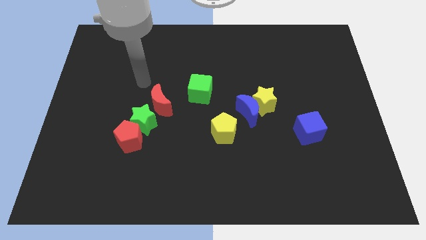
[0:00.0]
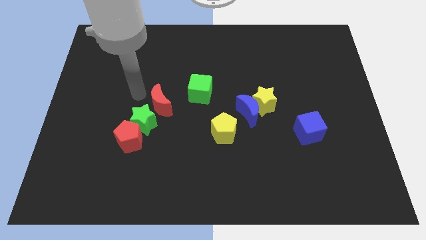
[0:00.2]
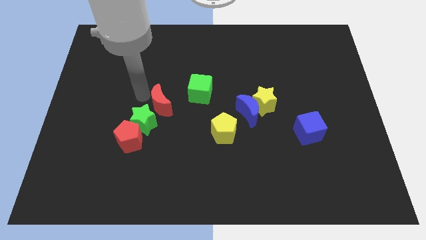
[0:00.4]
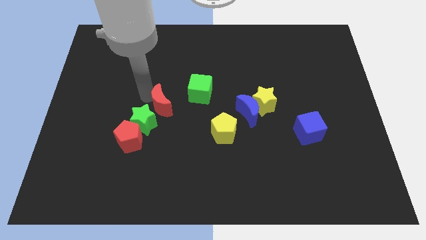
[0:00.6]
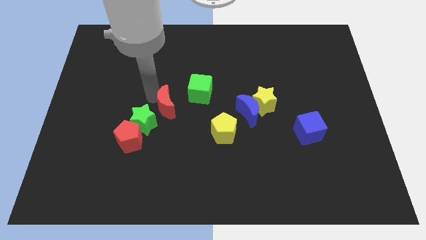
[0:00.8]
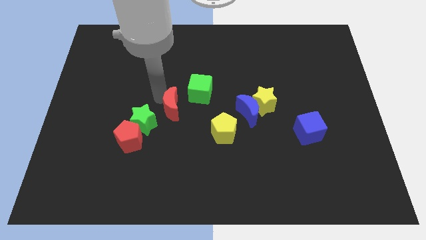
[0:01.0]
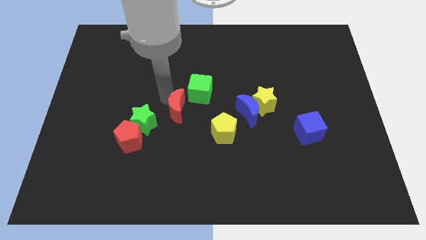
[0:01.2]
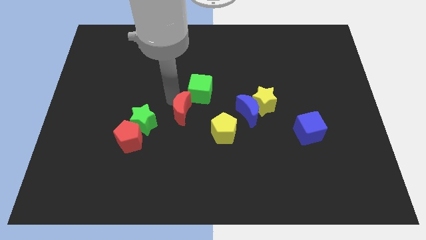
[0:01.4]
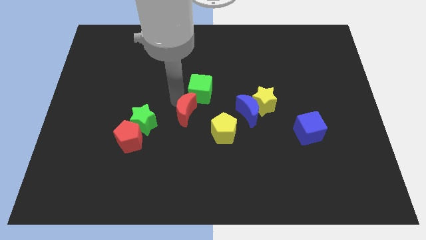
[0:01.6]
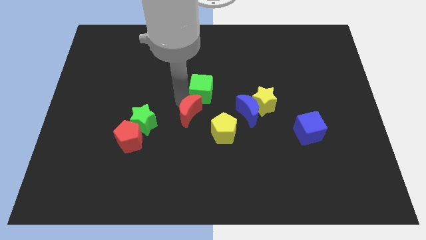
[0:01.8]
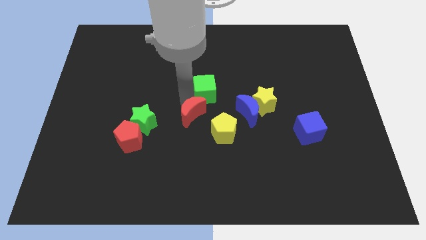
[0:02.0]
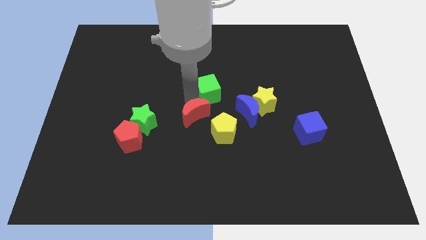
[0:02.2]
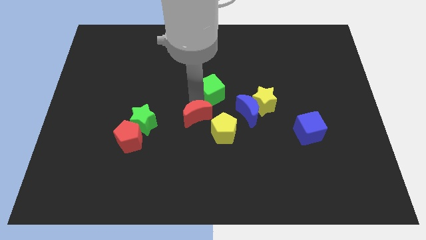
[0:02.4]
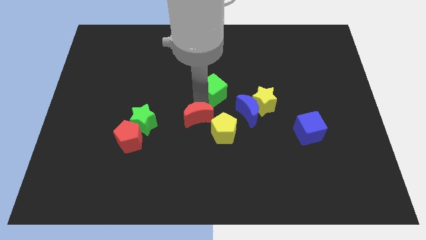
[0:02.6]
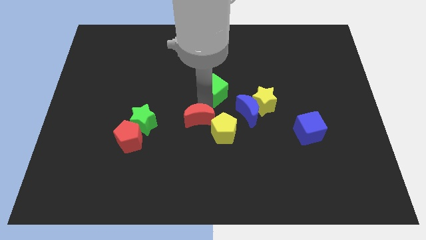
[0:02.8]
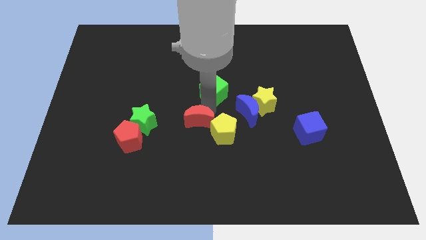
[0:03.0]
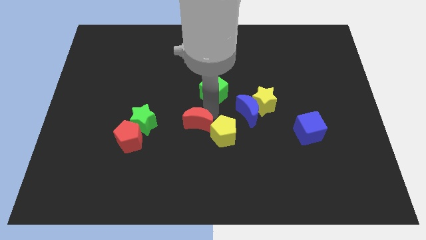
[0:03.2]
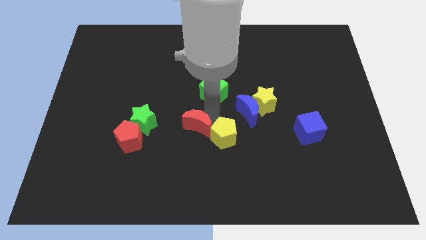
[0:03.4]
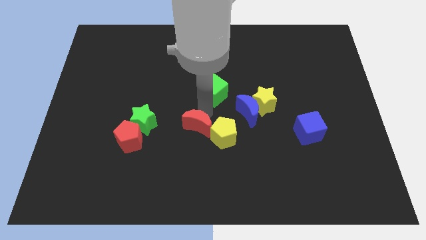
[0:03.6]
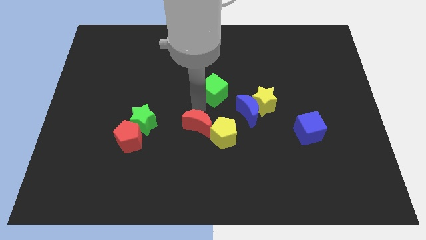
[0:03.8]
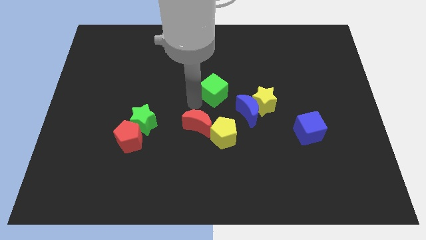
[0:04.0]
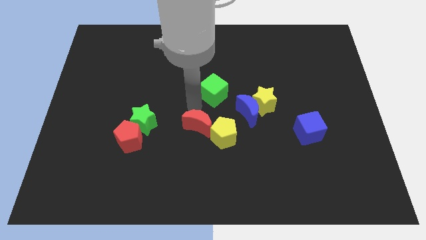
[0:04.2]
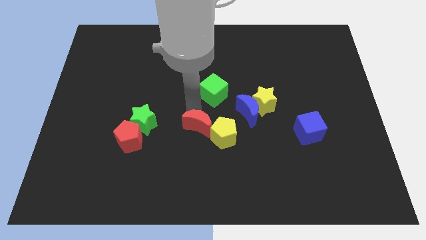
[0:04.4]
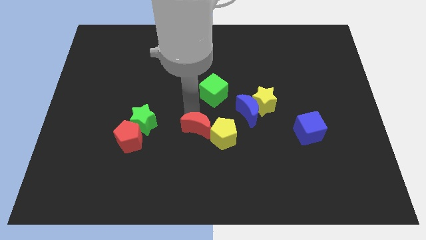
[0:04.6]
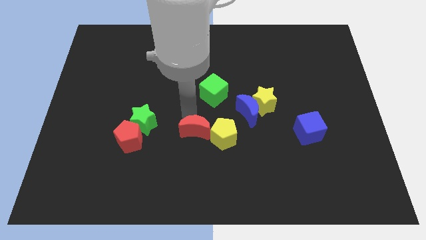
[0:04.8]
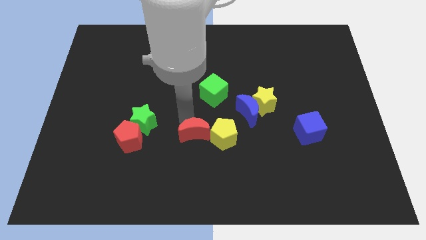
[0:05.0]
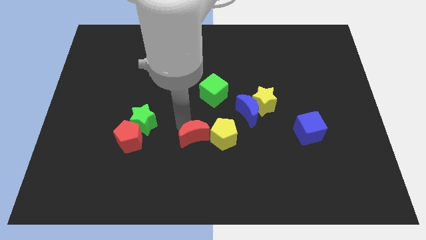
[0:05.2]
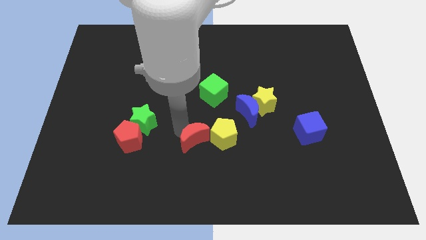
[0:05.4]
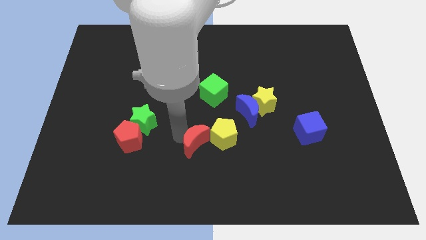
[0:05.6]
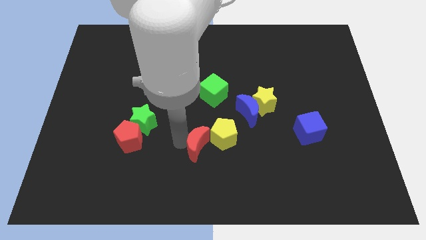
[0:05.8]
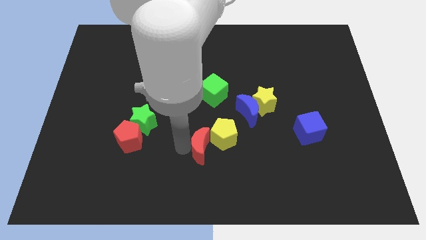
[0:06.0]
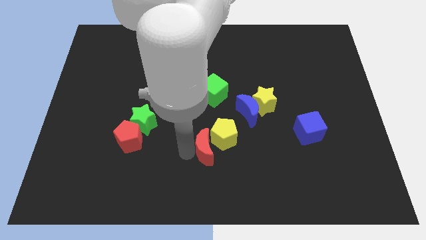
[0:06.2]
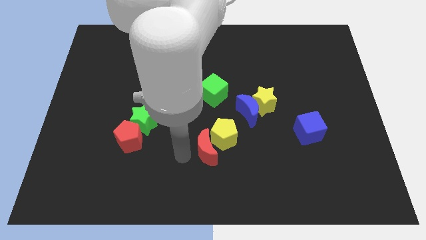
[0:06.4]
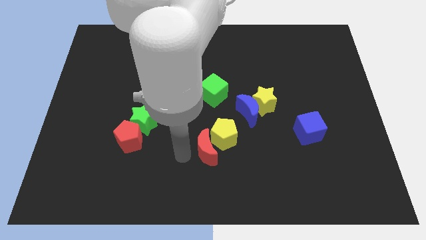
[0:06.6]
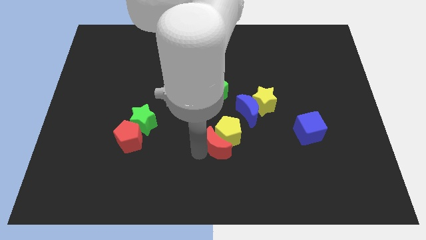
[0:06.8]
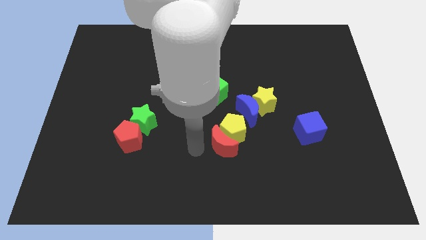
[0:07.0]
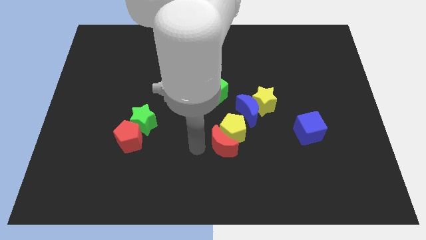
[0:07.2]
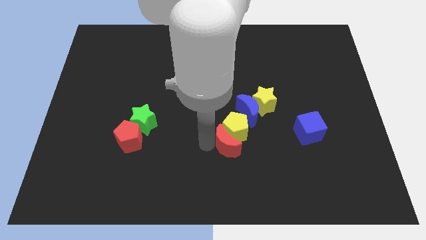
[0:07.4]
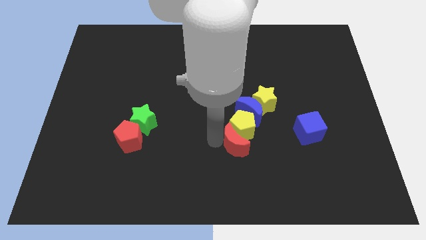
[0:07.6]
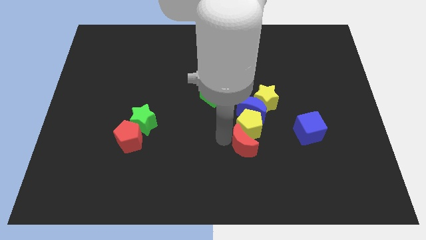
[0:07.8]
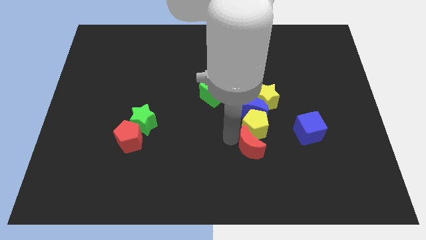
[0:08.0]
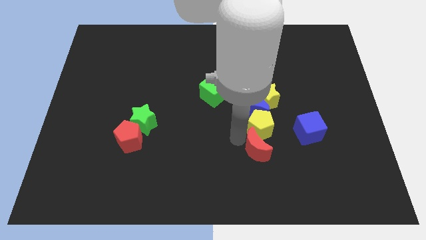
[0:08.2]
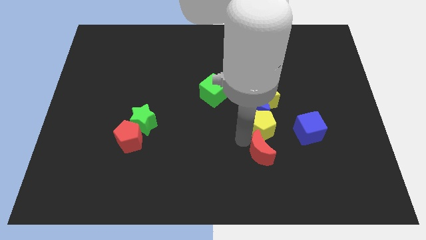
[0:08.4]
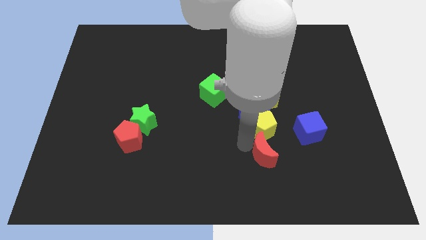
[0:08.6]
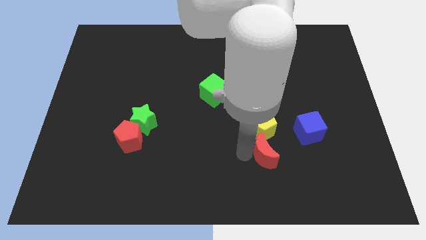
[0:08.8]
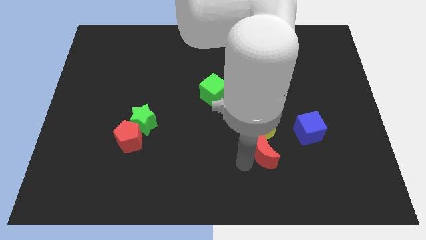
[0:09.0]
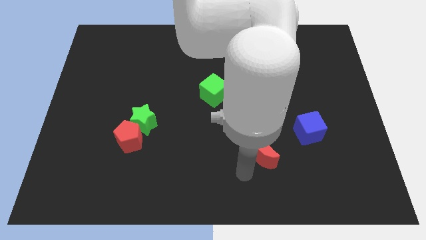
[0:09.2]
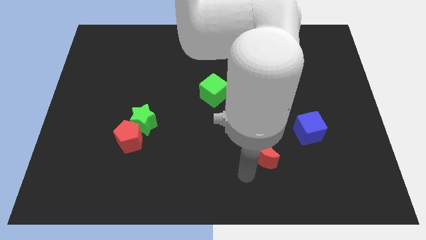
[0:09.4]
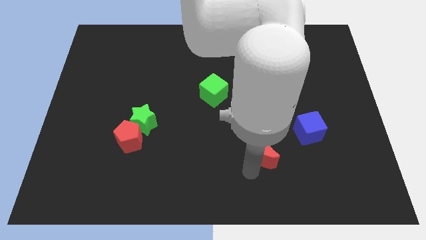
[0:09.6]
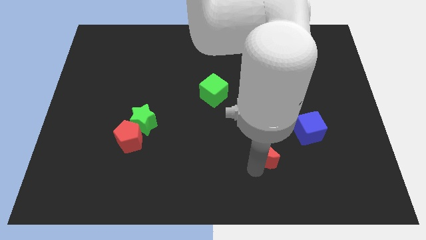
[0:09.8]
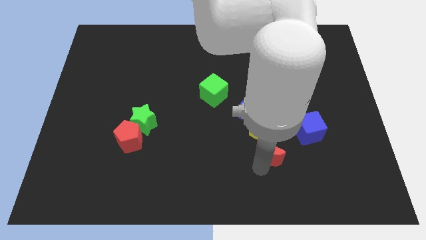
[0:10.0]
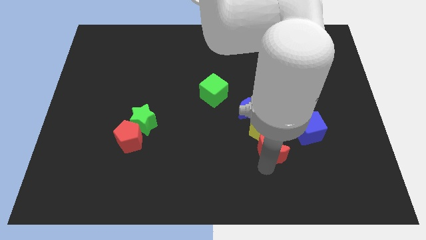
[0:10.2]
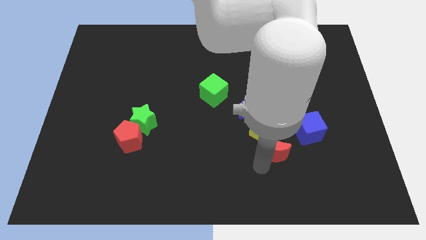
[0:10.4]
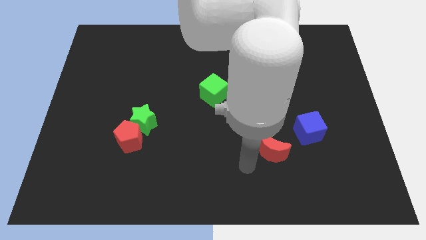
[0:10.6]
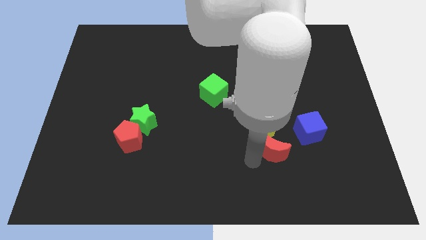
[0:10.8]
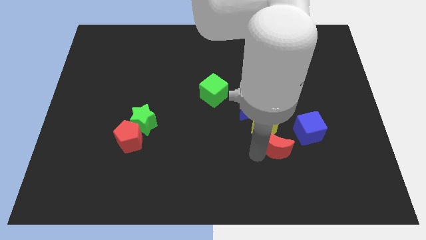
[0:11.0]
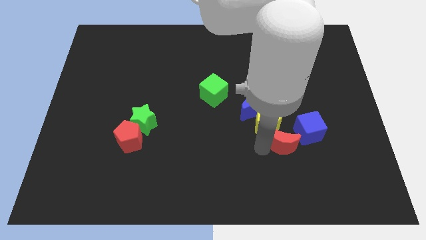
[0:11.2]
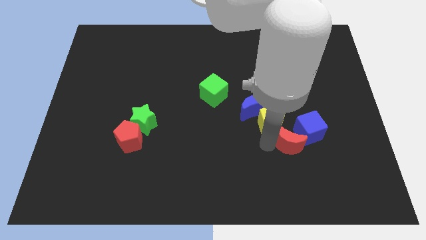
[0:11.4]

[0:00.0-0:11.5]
push the red moon to the blue cube

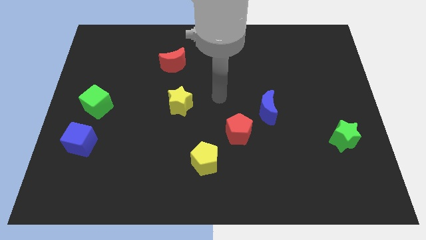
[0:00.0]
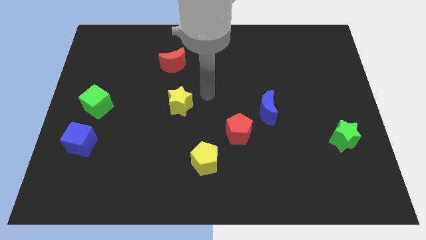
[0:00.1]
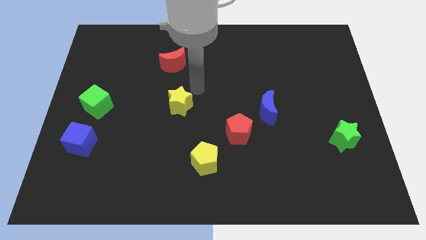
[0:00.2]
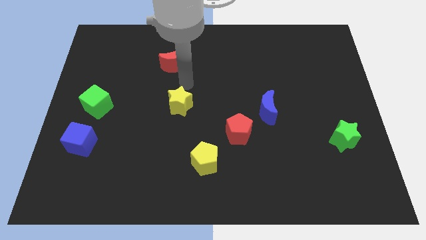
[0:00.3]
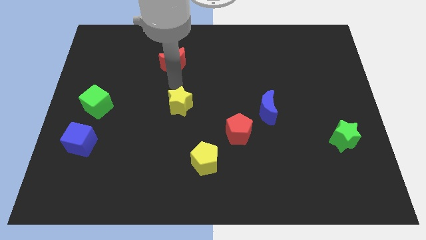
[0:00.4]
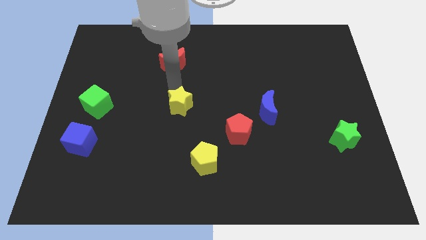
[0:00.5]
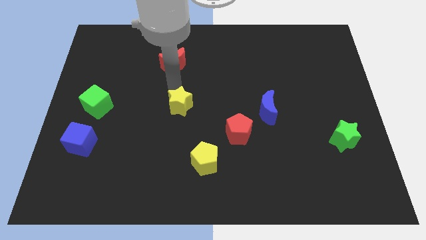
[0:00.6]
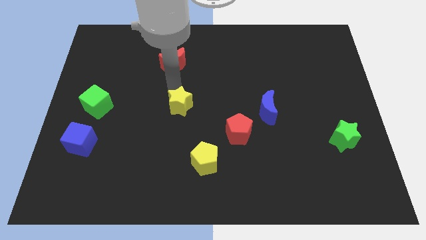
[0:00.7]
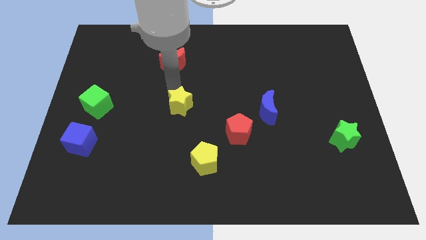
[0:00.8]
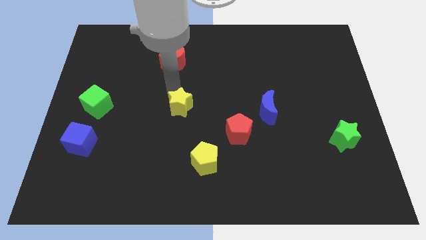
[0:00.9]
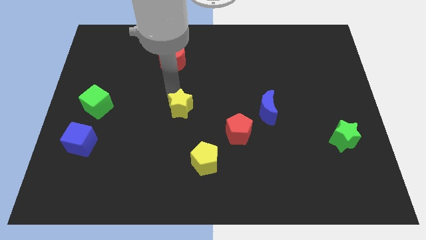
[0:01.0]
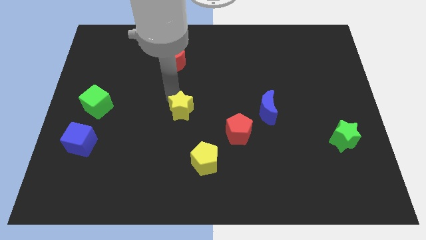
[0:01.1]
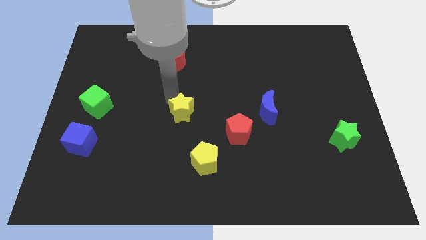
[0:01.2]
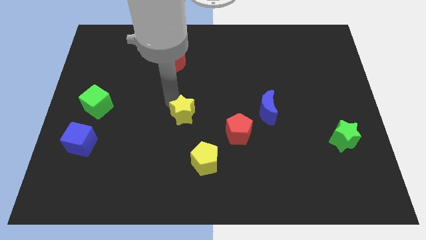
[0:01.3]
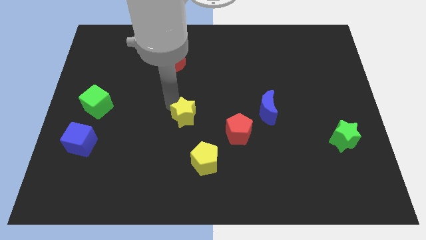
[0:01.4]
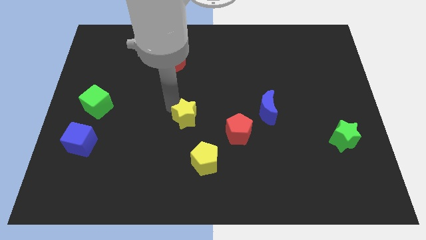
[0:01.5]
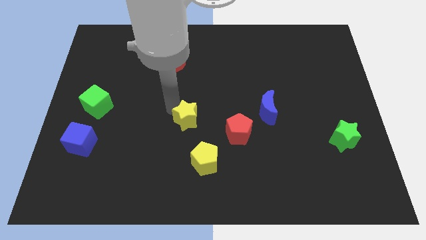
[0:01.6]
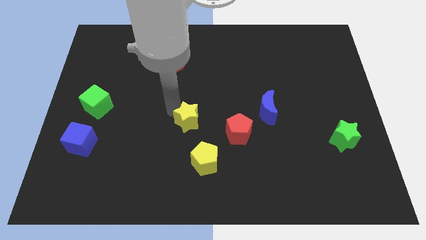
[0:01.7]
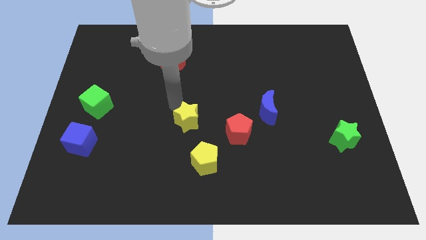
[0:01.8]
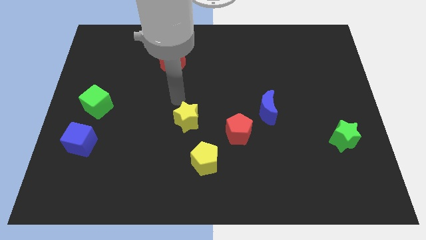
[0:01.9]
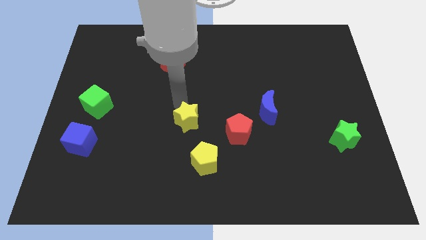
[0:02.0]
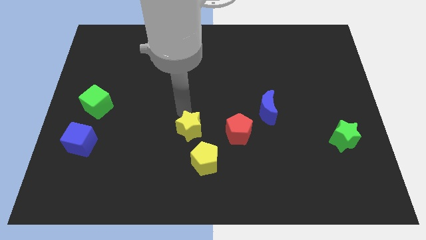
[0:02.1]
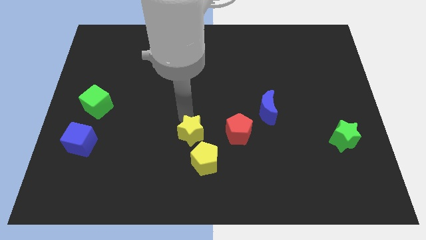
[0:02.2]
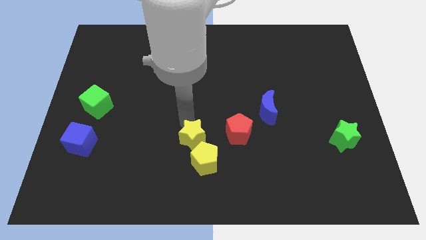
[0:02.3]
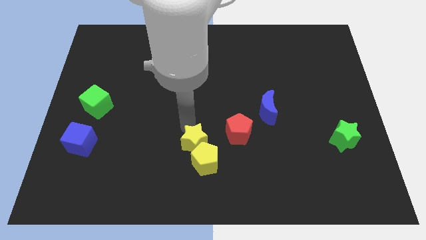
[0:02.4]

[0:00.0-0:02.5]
slide the yellow star towards the yellow pentagon
